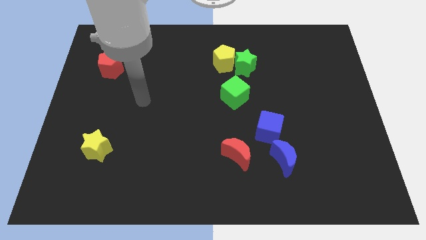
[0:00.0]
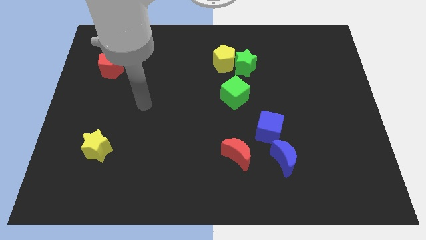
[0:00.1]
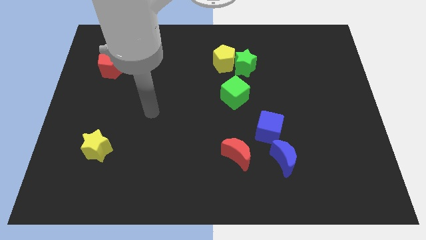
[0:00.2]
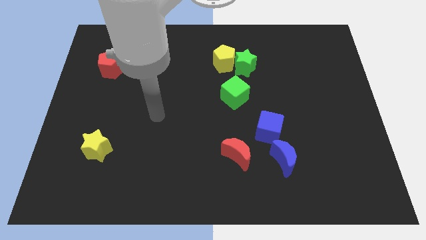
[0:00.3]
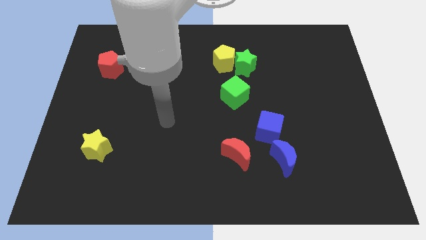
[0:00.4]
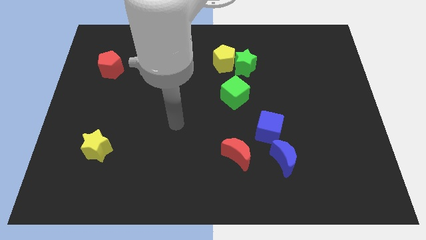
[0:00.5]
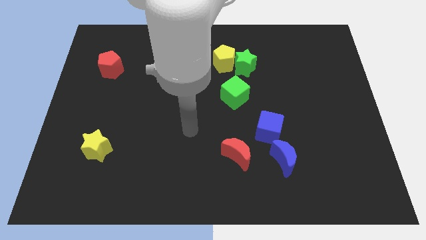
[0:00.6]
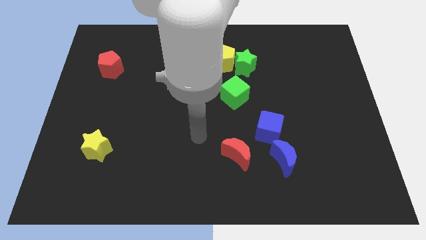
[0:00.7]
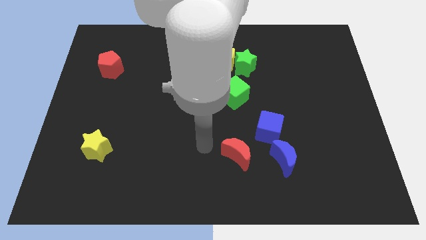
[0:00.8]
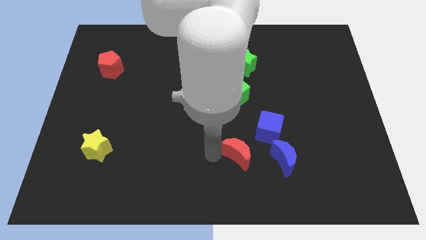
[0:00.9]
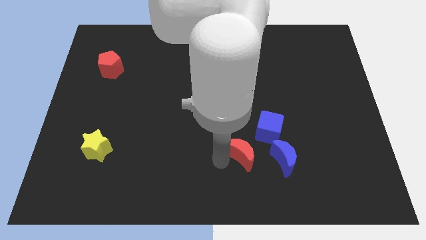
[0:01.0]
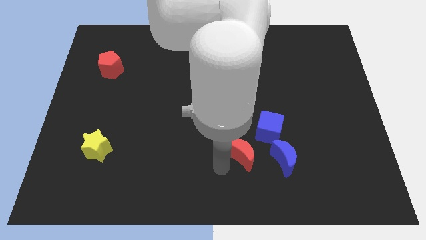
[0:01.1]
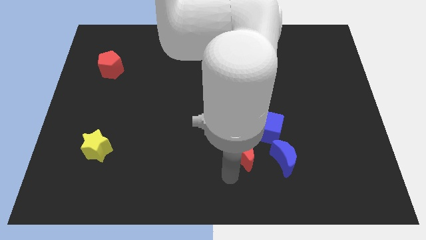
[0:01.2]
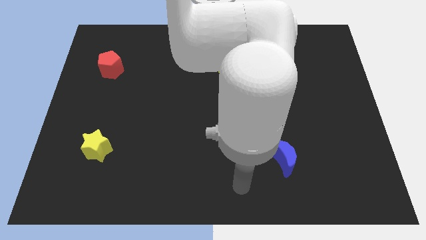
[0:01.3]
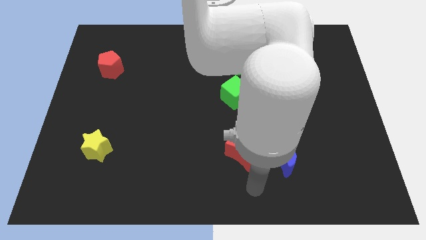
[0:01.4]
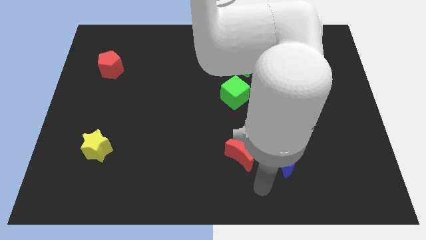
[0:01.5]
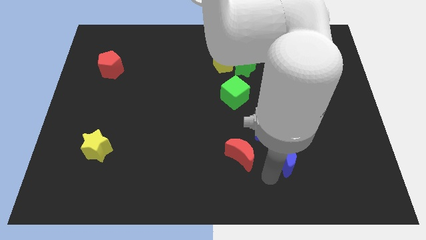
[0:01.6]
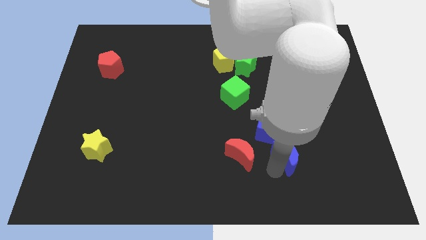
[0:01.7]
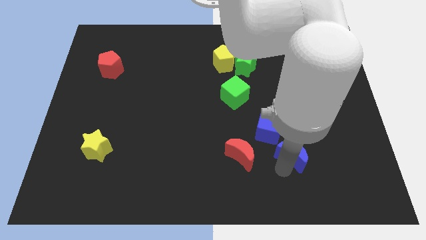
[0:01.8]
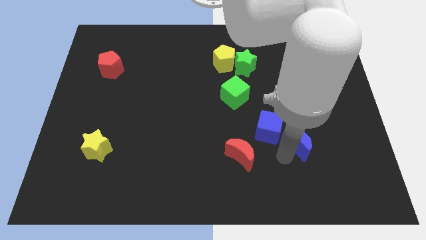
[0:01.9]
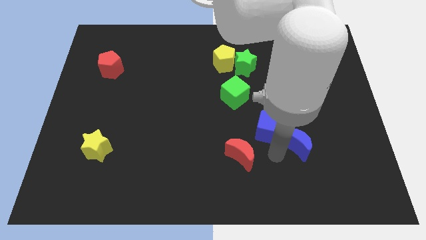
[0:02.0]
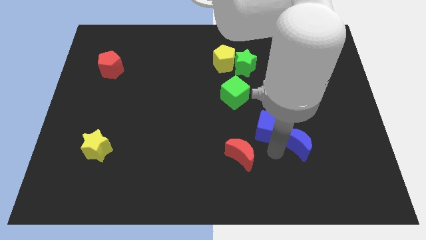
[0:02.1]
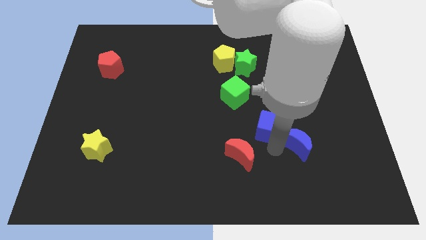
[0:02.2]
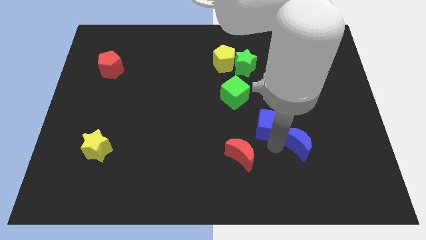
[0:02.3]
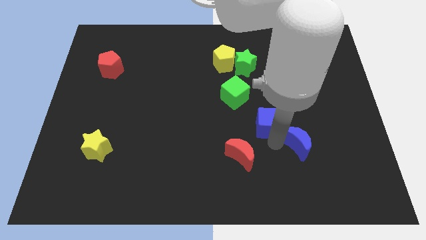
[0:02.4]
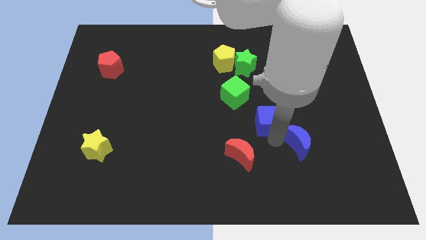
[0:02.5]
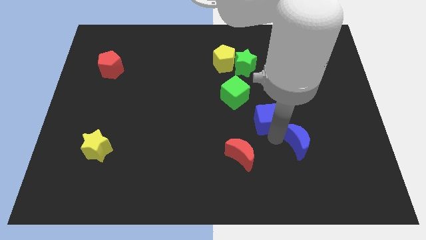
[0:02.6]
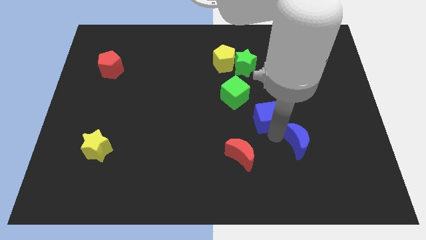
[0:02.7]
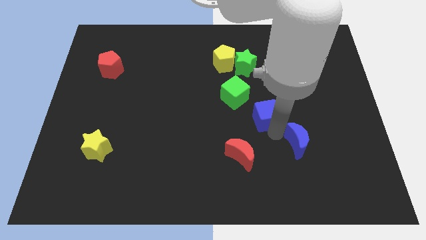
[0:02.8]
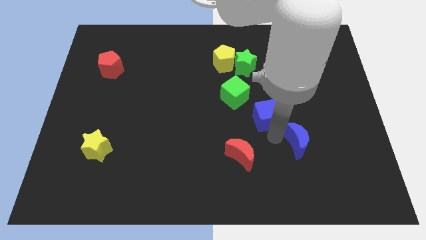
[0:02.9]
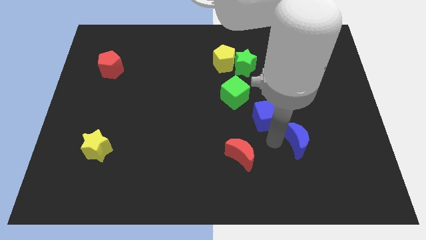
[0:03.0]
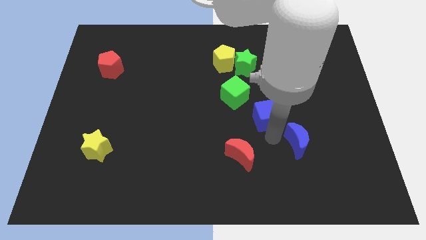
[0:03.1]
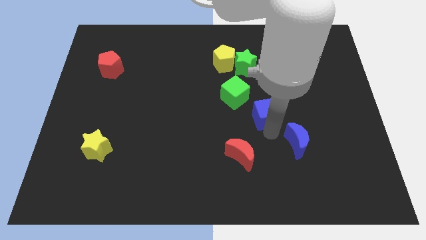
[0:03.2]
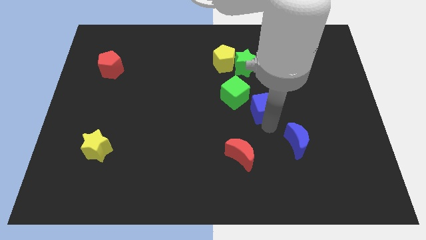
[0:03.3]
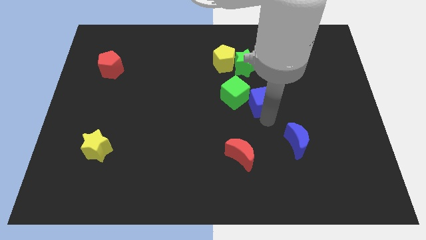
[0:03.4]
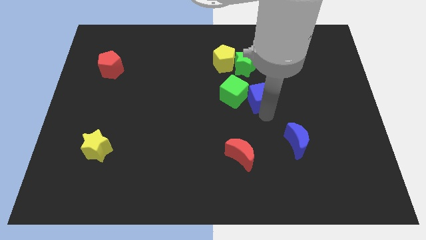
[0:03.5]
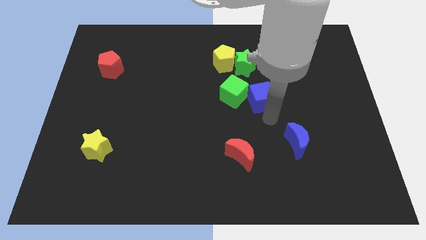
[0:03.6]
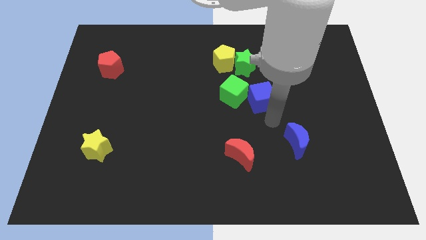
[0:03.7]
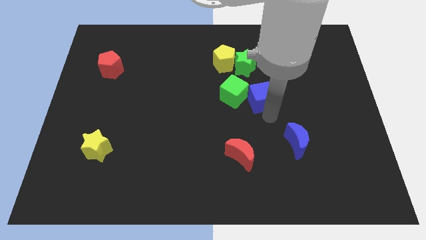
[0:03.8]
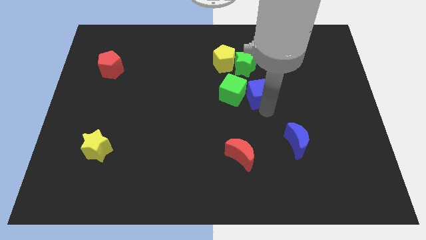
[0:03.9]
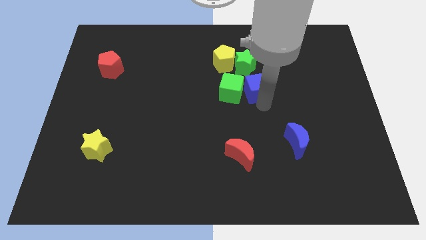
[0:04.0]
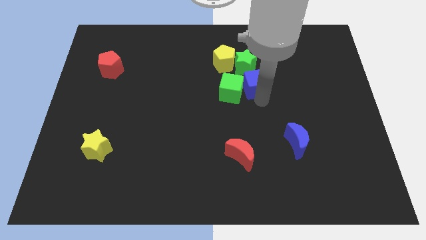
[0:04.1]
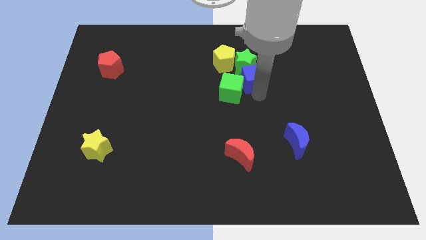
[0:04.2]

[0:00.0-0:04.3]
slide the blue cube close to the green star

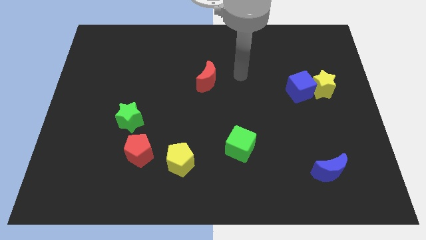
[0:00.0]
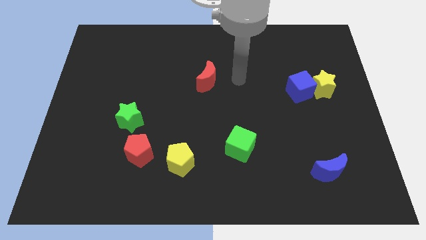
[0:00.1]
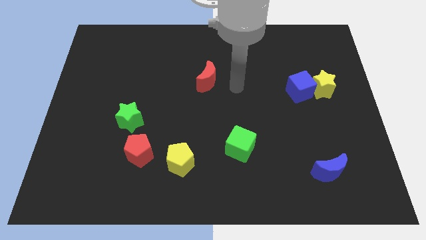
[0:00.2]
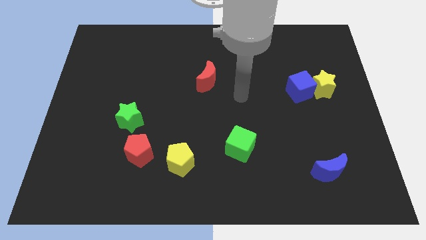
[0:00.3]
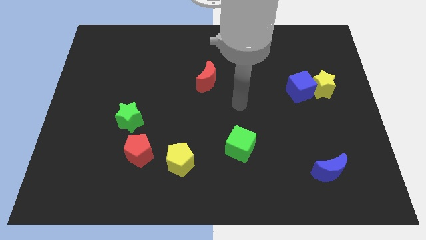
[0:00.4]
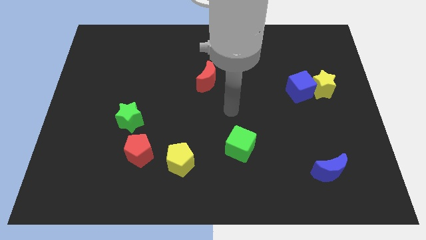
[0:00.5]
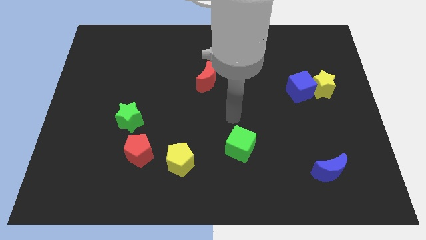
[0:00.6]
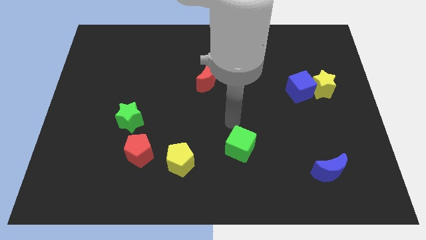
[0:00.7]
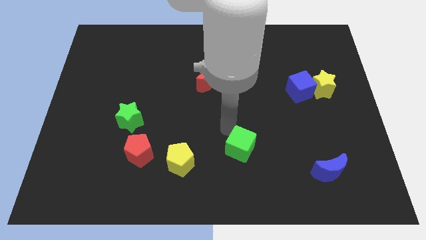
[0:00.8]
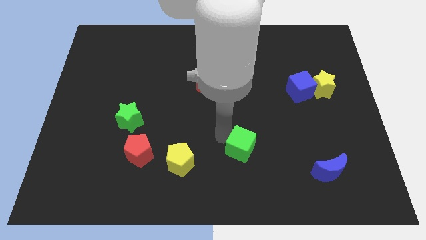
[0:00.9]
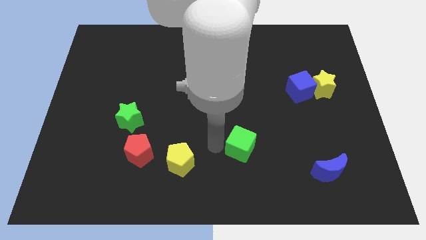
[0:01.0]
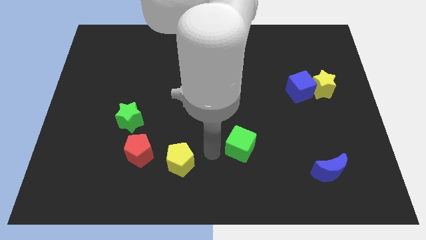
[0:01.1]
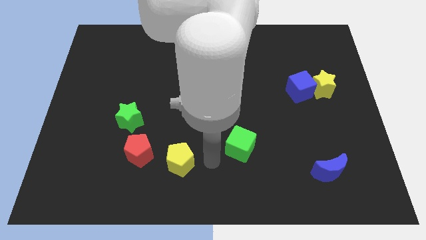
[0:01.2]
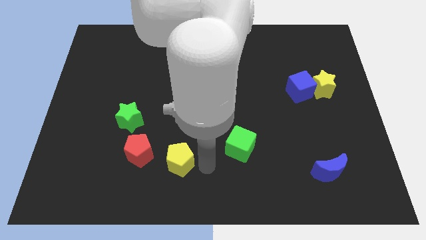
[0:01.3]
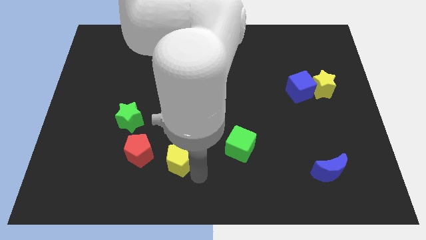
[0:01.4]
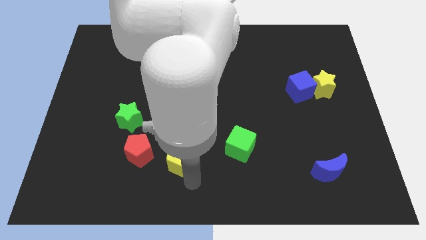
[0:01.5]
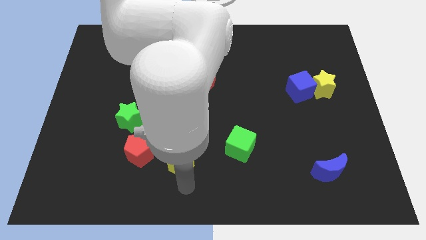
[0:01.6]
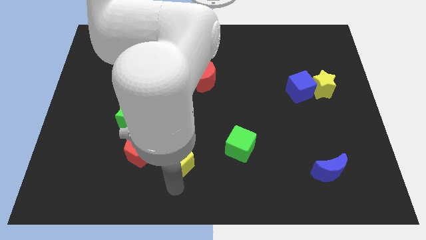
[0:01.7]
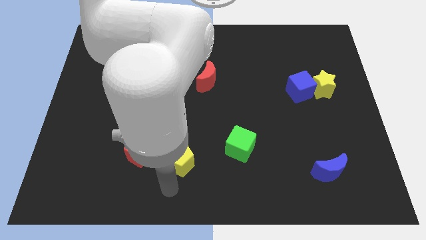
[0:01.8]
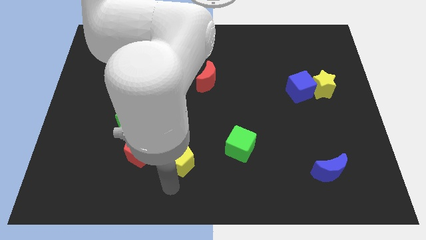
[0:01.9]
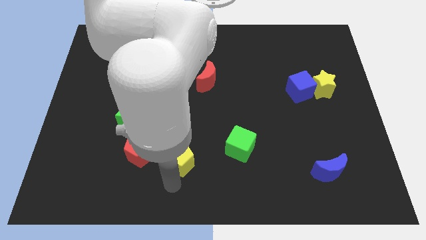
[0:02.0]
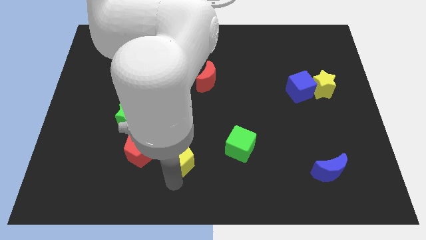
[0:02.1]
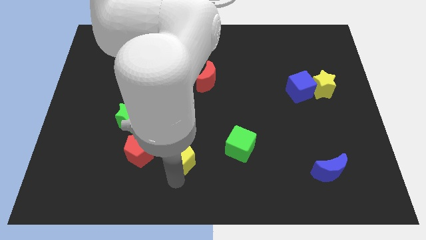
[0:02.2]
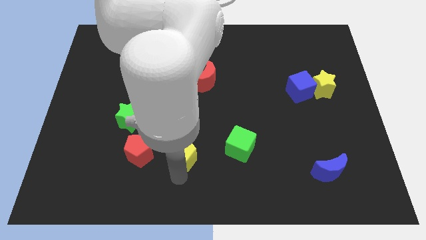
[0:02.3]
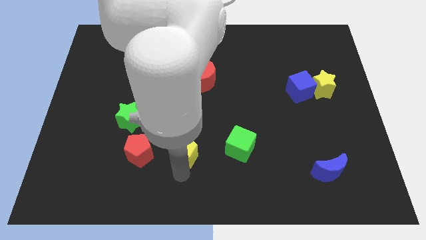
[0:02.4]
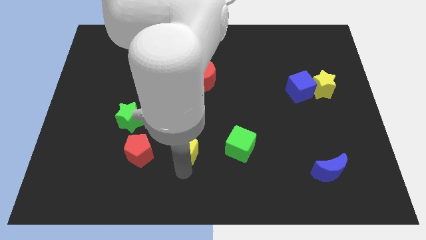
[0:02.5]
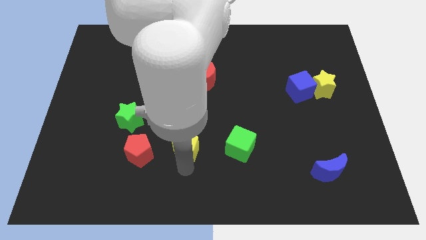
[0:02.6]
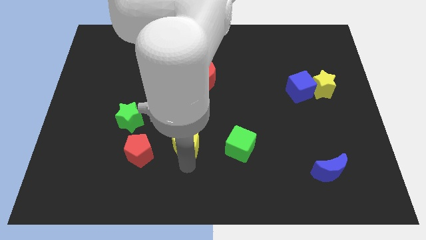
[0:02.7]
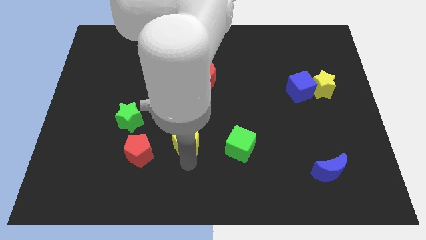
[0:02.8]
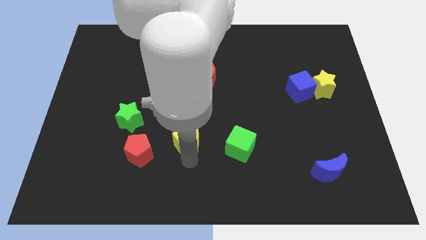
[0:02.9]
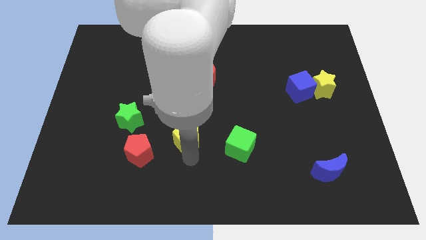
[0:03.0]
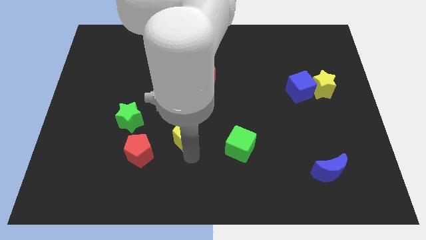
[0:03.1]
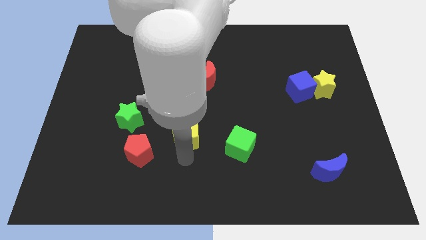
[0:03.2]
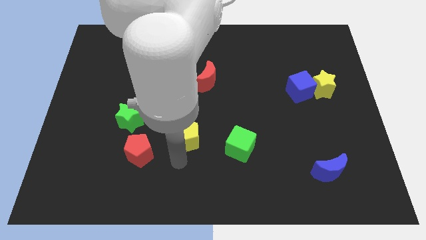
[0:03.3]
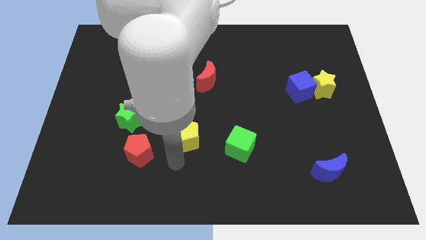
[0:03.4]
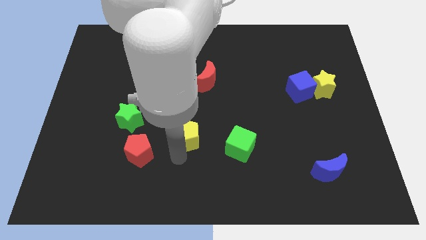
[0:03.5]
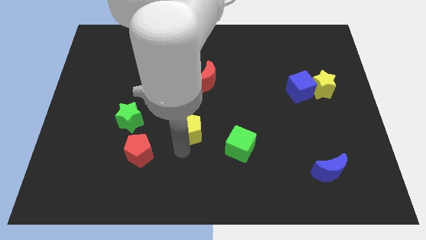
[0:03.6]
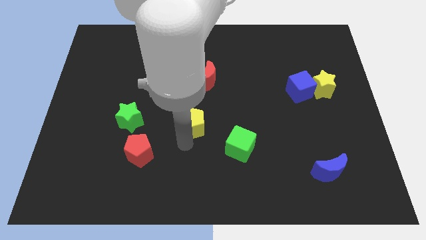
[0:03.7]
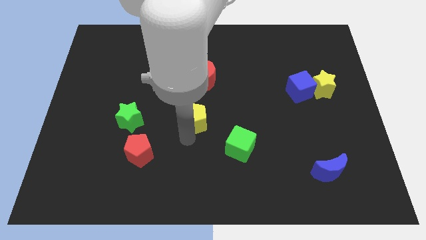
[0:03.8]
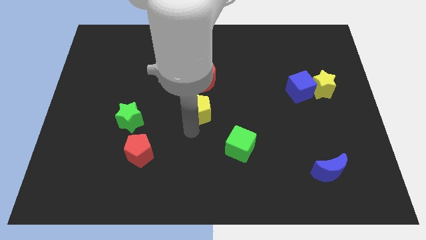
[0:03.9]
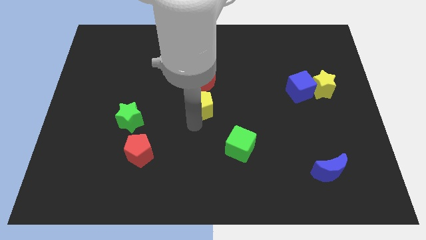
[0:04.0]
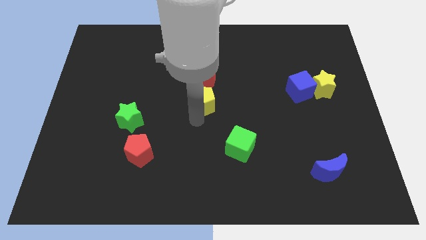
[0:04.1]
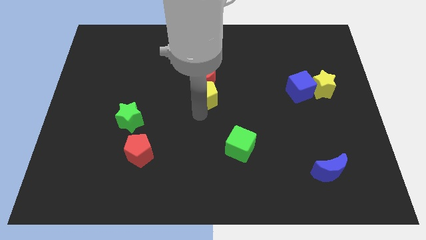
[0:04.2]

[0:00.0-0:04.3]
slide the yellow pentagon close to the red moon
